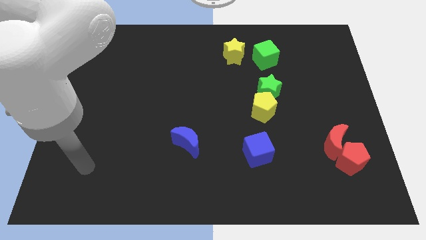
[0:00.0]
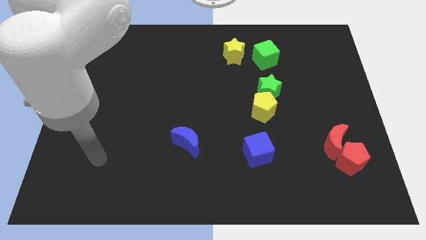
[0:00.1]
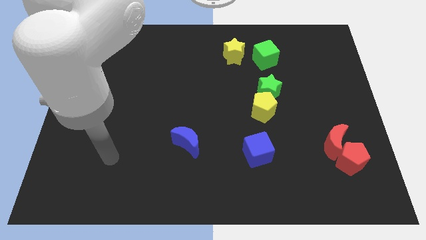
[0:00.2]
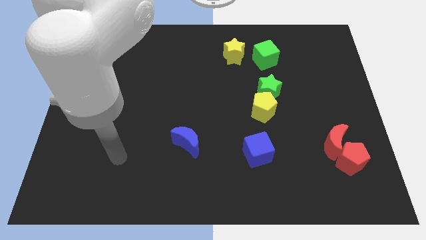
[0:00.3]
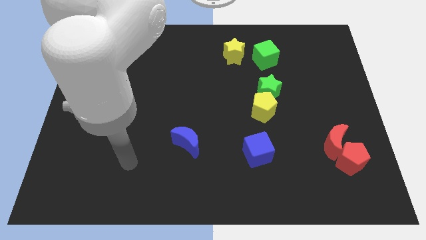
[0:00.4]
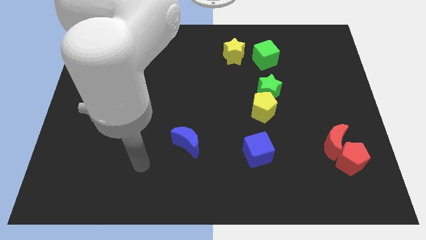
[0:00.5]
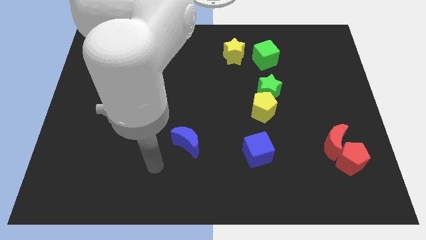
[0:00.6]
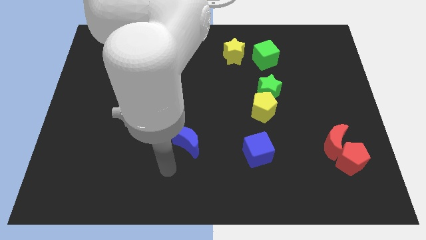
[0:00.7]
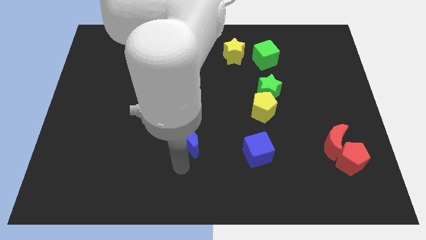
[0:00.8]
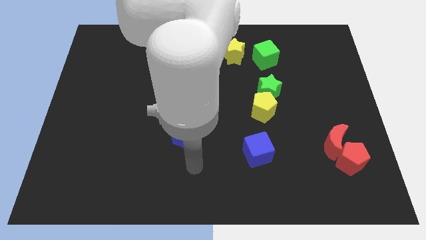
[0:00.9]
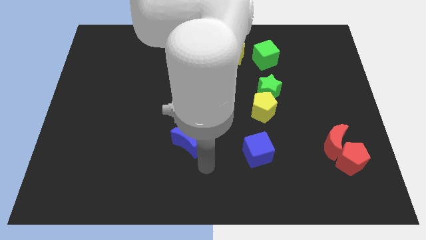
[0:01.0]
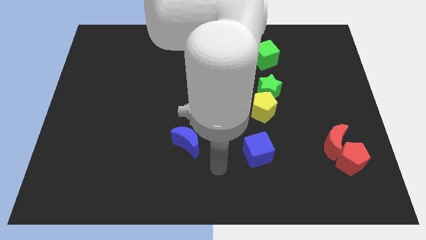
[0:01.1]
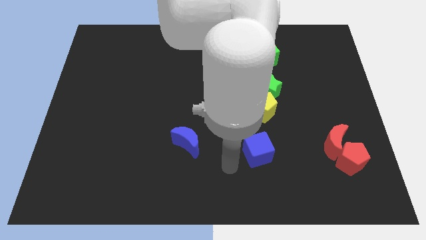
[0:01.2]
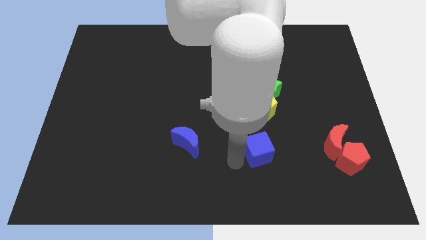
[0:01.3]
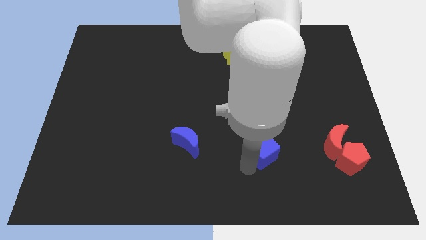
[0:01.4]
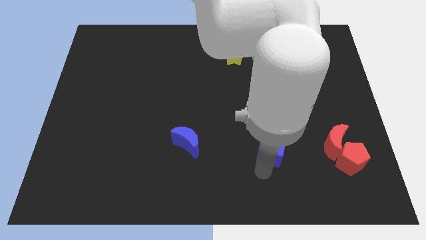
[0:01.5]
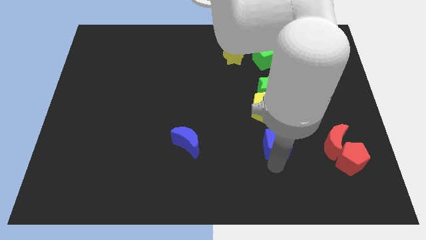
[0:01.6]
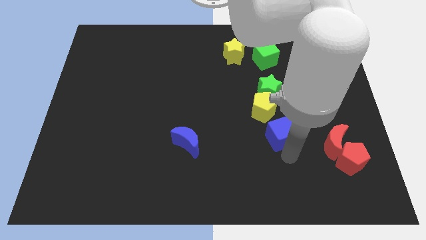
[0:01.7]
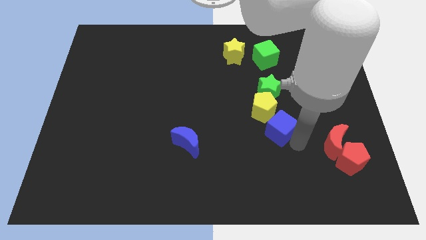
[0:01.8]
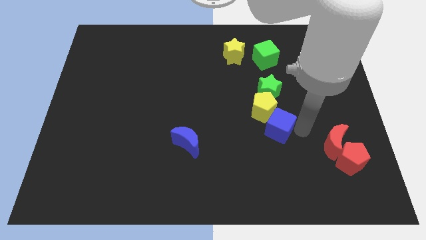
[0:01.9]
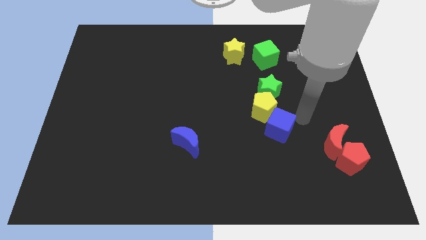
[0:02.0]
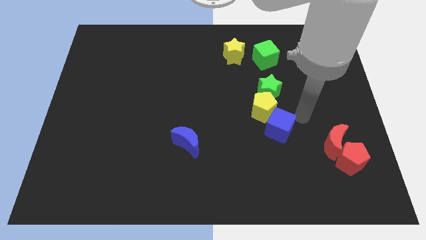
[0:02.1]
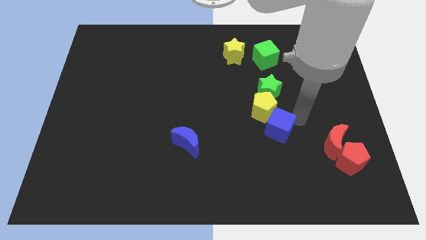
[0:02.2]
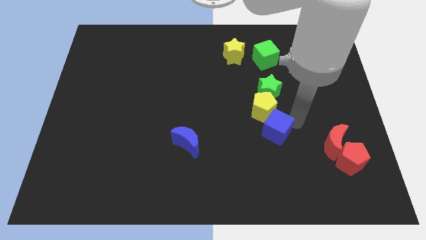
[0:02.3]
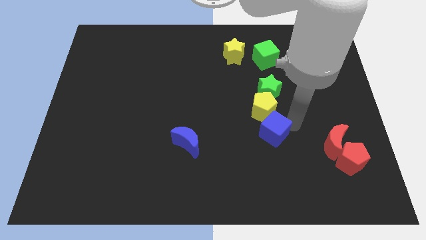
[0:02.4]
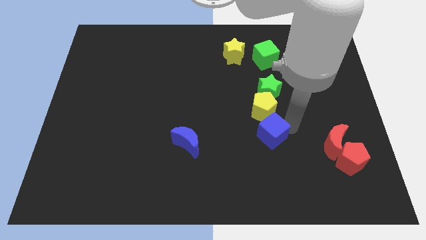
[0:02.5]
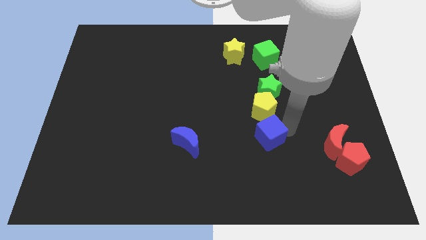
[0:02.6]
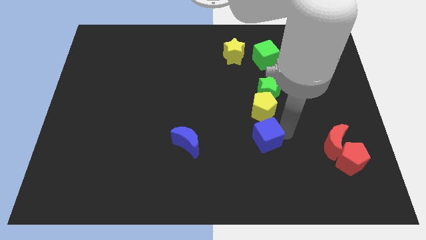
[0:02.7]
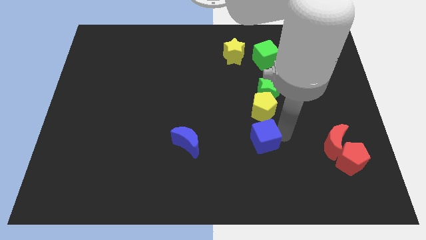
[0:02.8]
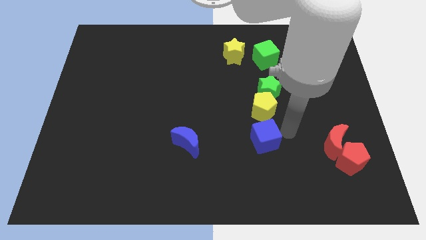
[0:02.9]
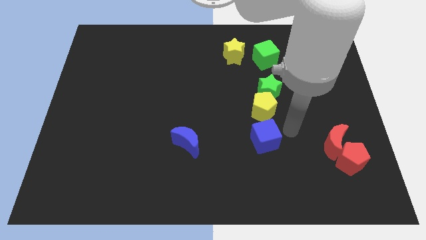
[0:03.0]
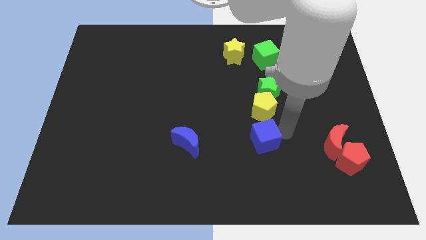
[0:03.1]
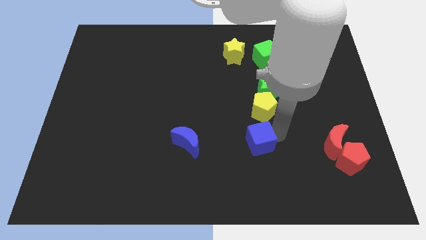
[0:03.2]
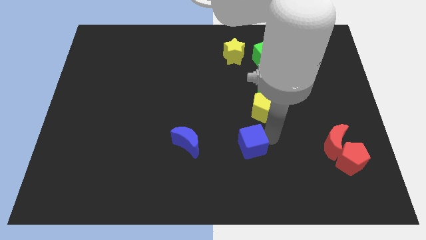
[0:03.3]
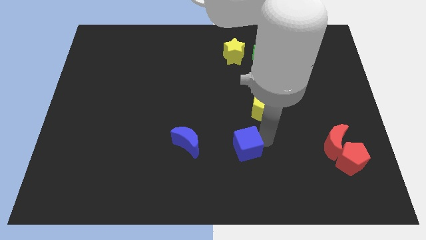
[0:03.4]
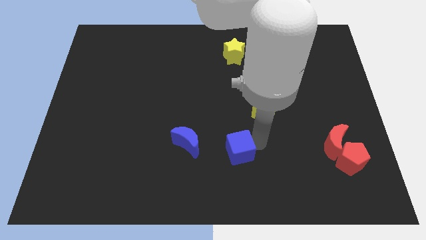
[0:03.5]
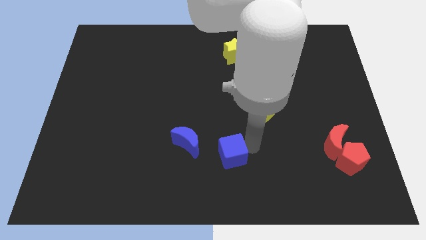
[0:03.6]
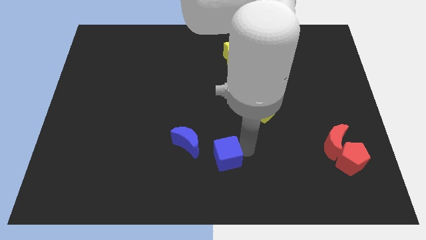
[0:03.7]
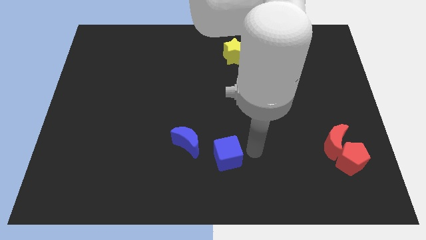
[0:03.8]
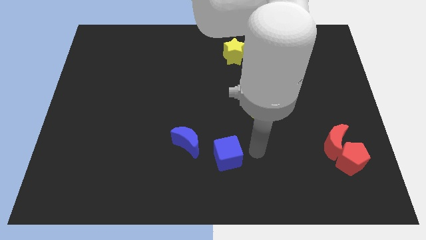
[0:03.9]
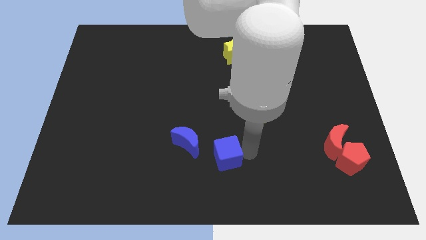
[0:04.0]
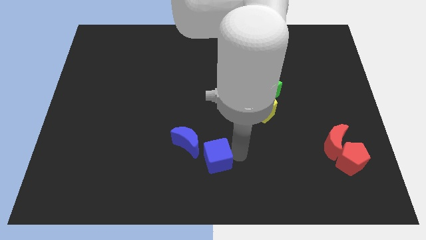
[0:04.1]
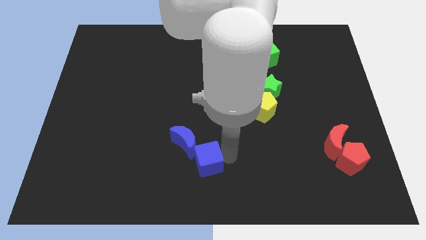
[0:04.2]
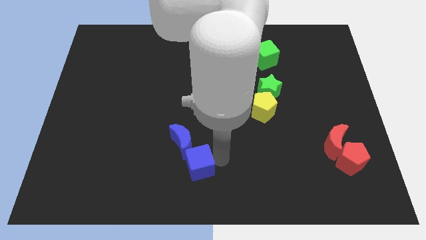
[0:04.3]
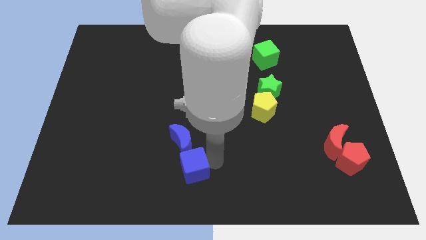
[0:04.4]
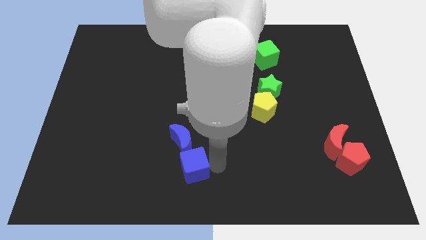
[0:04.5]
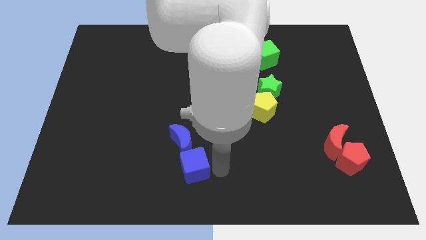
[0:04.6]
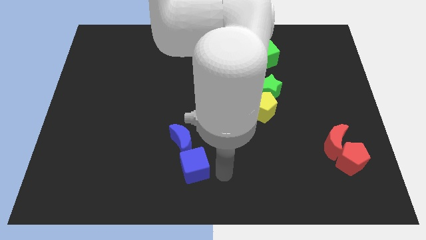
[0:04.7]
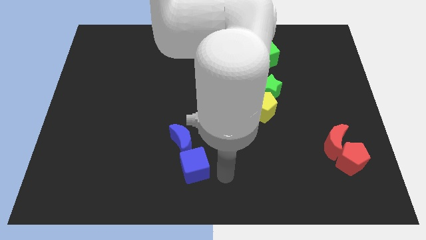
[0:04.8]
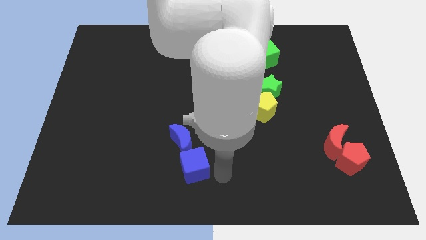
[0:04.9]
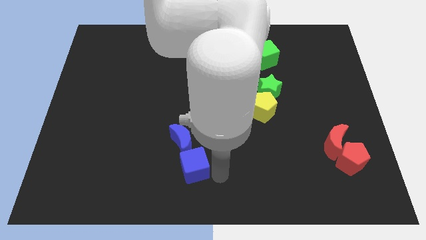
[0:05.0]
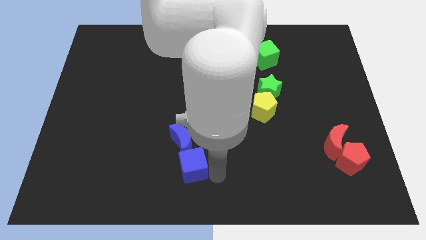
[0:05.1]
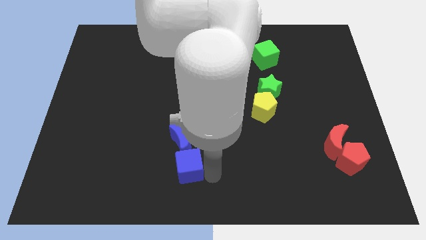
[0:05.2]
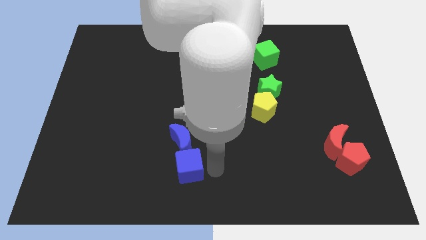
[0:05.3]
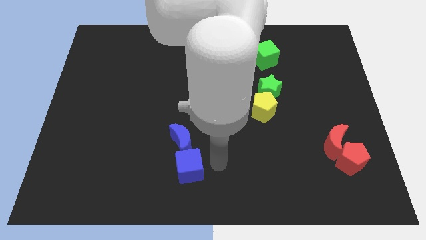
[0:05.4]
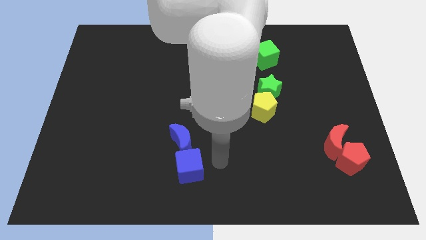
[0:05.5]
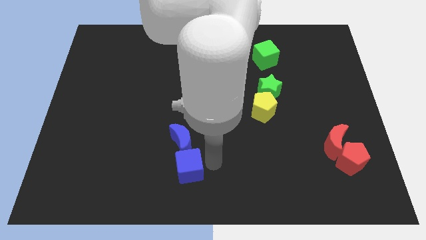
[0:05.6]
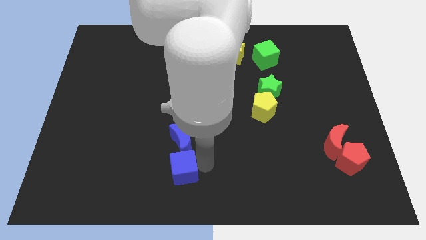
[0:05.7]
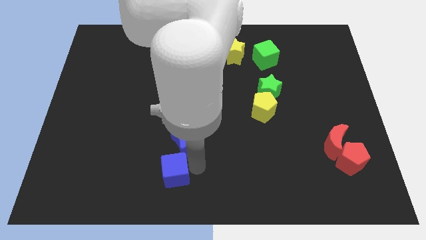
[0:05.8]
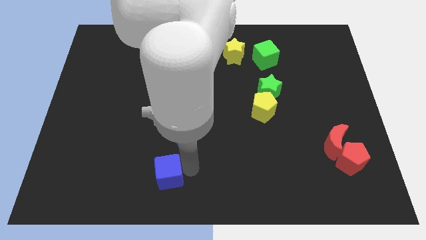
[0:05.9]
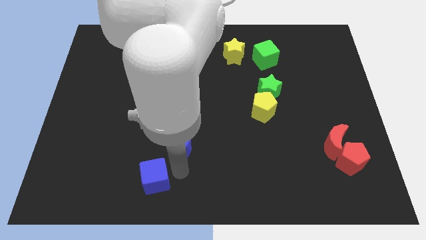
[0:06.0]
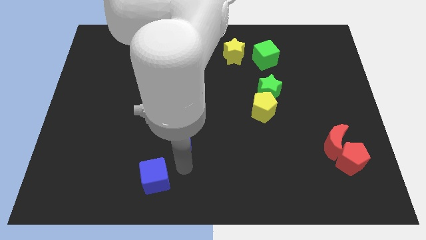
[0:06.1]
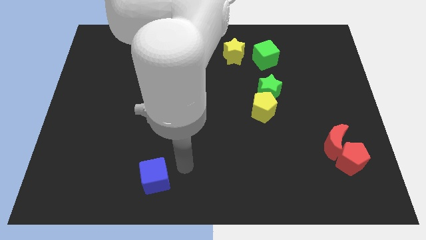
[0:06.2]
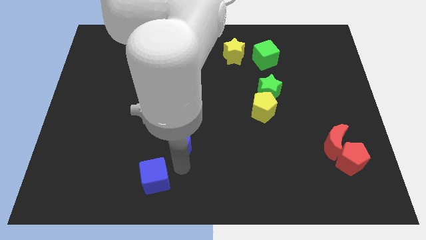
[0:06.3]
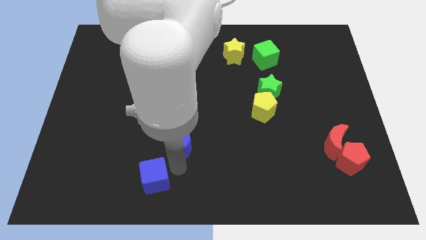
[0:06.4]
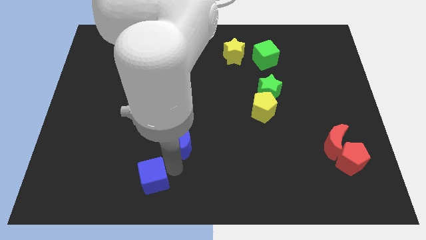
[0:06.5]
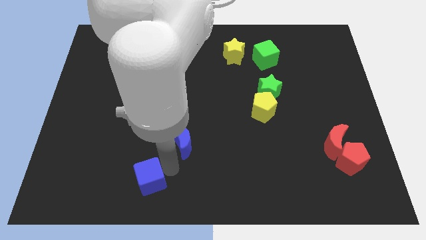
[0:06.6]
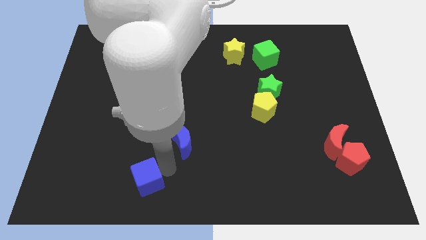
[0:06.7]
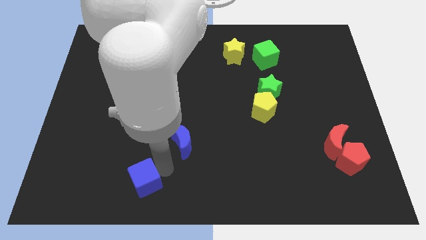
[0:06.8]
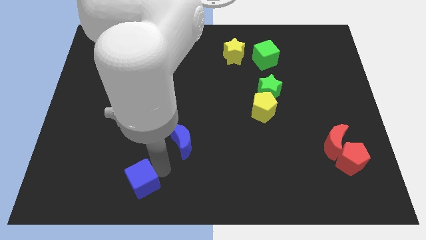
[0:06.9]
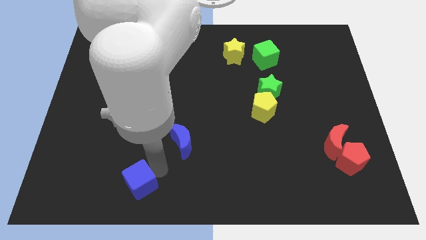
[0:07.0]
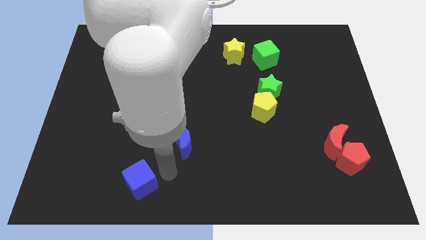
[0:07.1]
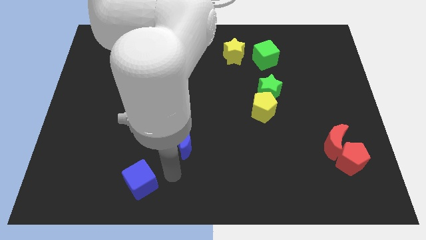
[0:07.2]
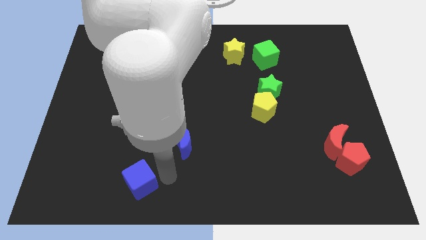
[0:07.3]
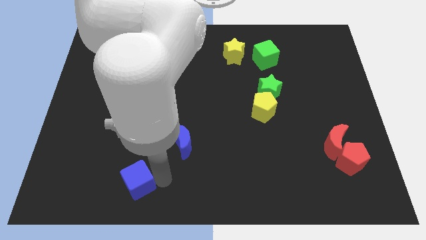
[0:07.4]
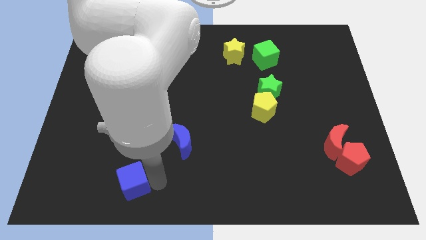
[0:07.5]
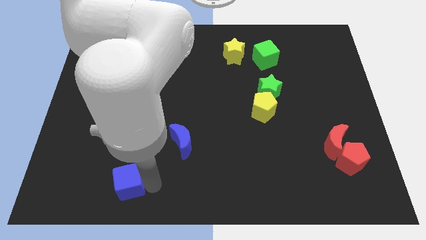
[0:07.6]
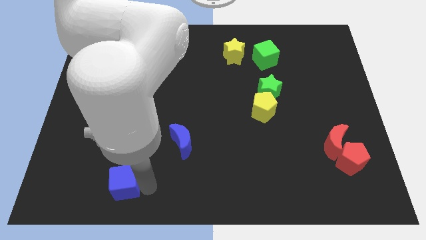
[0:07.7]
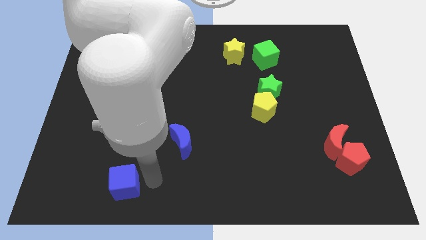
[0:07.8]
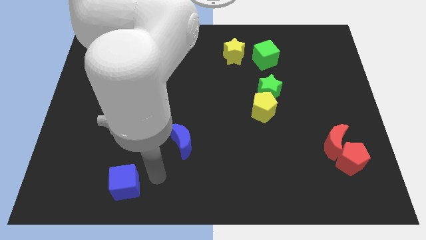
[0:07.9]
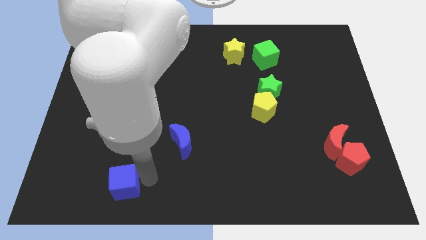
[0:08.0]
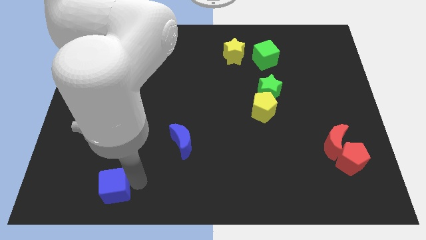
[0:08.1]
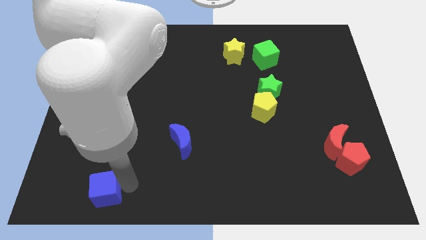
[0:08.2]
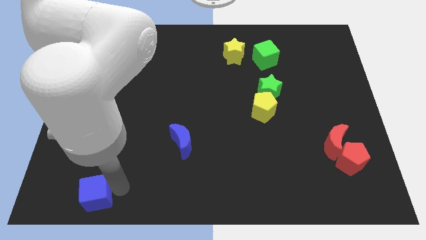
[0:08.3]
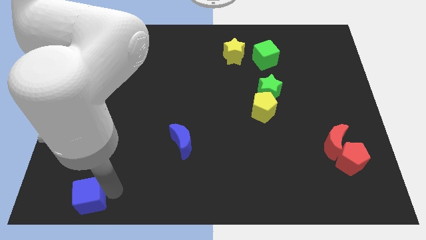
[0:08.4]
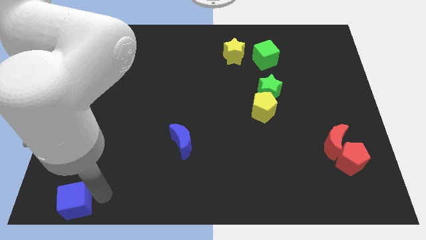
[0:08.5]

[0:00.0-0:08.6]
slide the blue cube to the lower left corner
